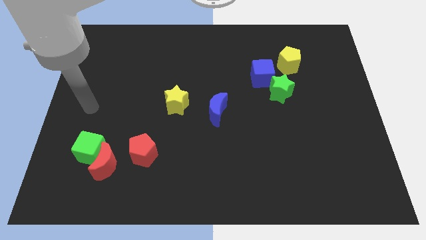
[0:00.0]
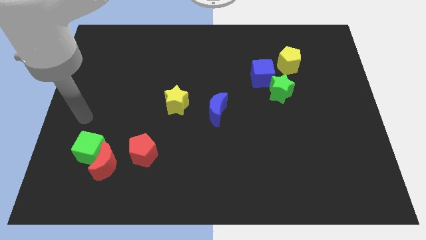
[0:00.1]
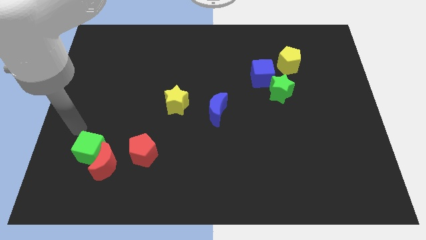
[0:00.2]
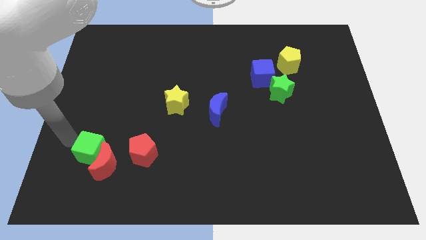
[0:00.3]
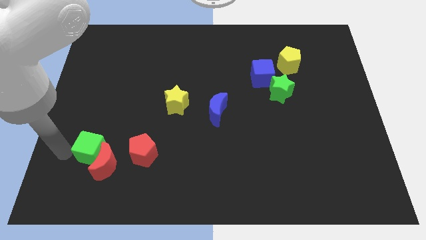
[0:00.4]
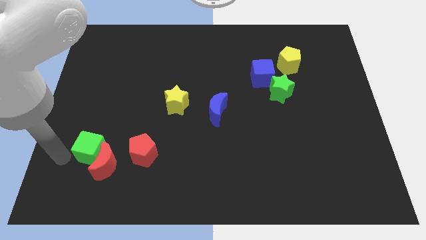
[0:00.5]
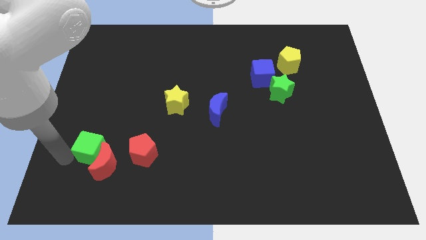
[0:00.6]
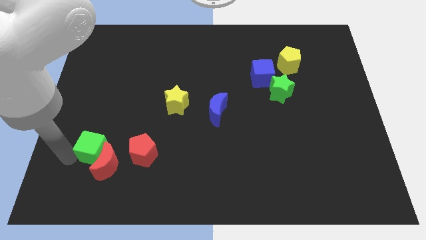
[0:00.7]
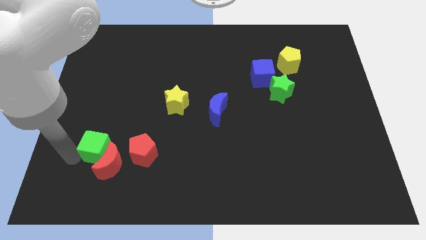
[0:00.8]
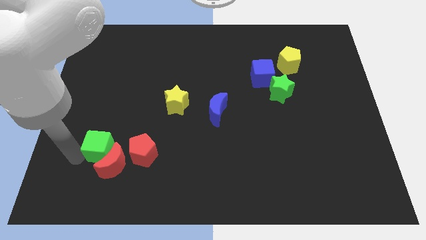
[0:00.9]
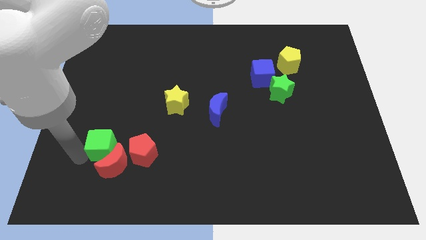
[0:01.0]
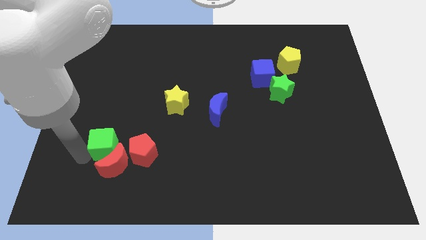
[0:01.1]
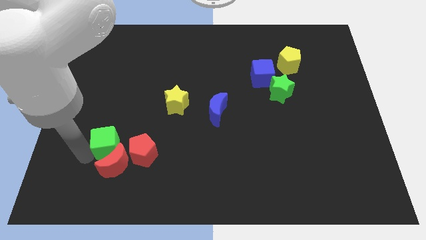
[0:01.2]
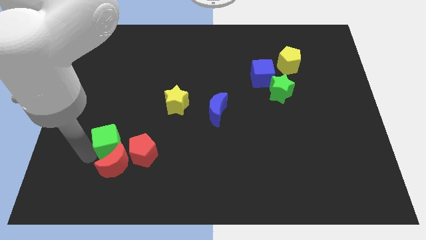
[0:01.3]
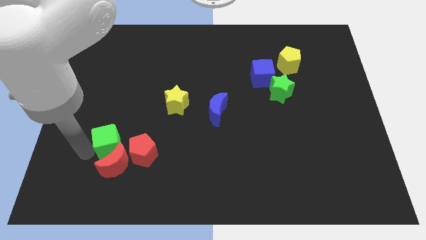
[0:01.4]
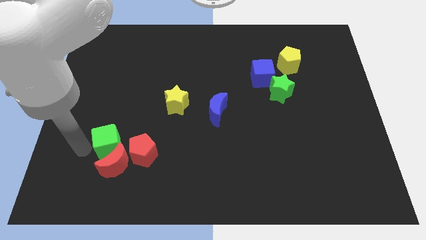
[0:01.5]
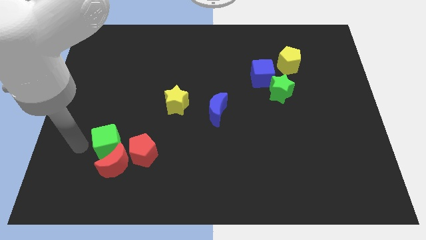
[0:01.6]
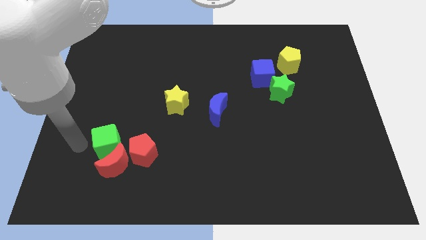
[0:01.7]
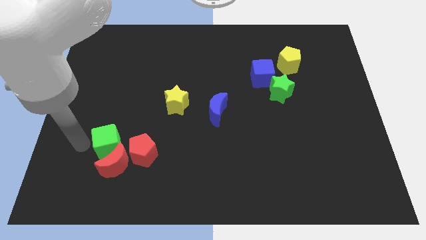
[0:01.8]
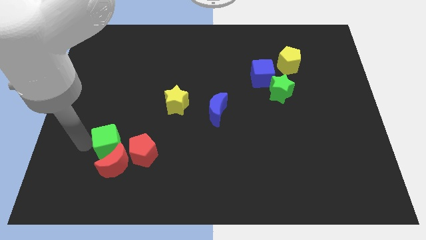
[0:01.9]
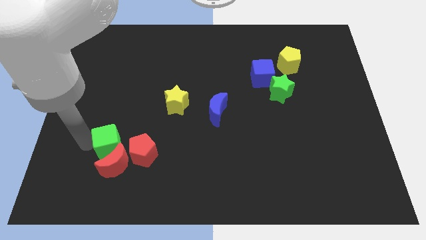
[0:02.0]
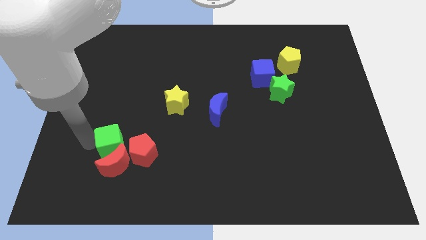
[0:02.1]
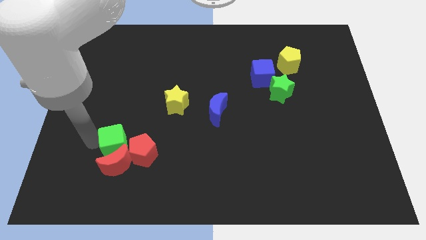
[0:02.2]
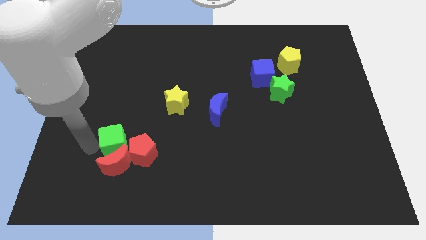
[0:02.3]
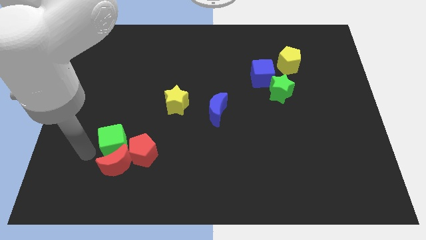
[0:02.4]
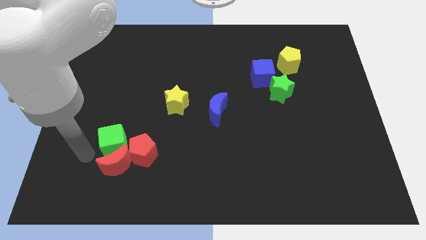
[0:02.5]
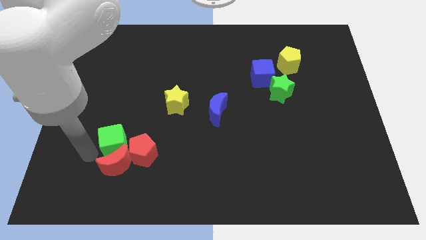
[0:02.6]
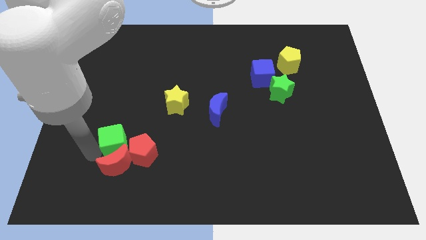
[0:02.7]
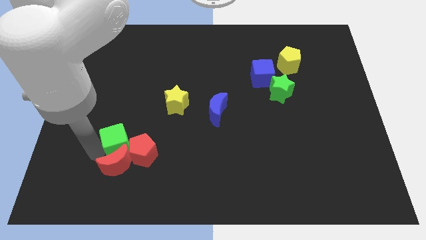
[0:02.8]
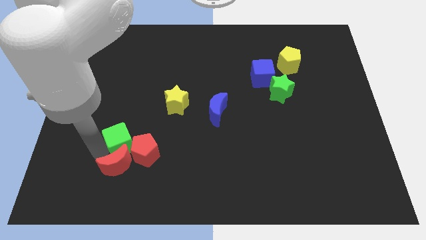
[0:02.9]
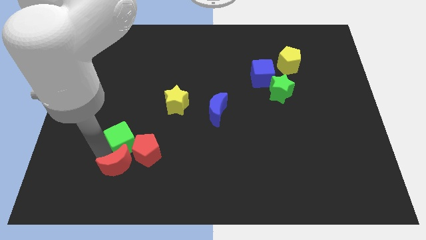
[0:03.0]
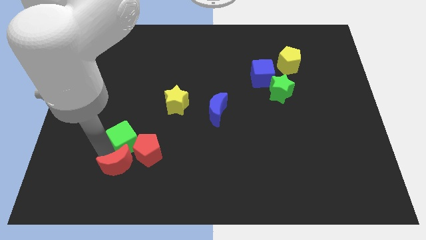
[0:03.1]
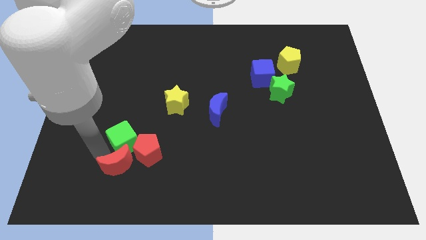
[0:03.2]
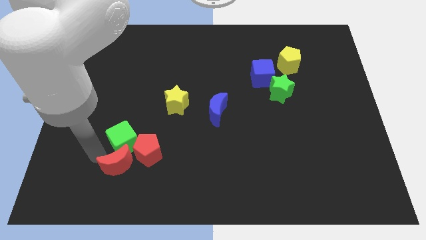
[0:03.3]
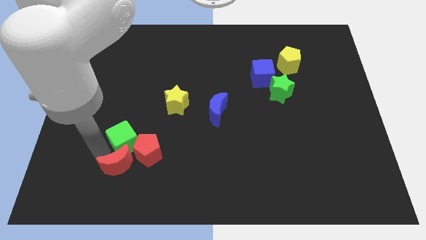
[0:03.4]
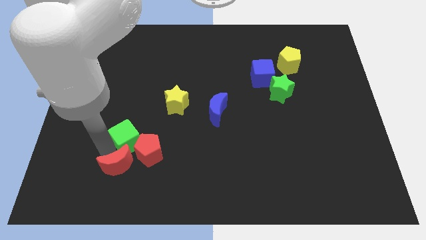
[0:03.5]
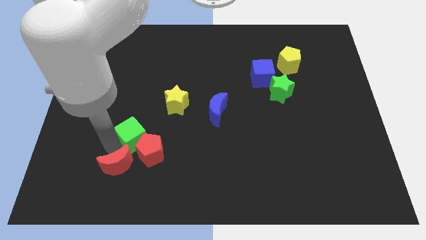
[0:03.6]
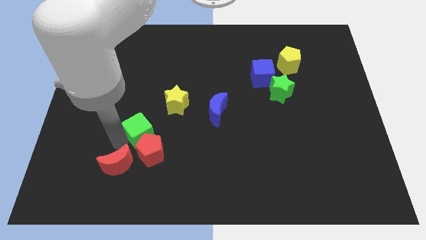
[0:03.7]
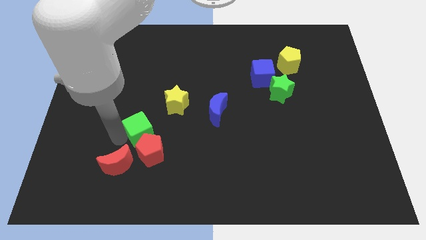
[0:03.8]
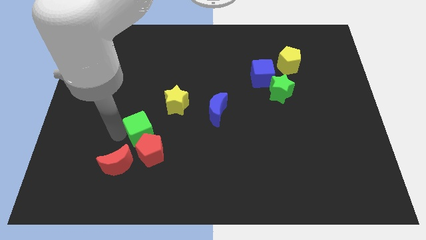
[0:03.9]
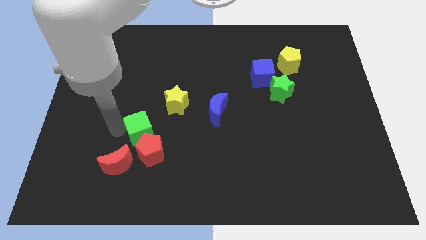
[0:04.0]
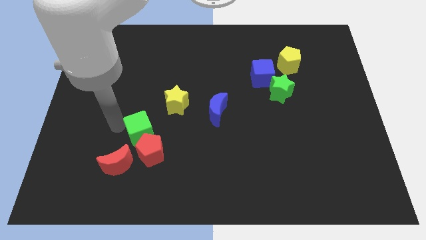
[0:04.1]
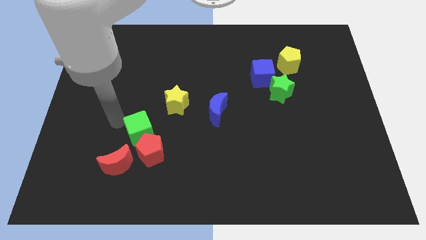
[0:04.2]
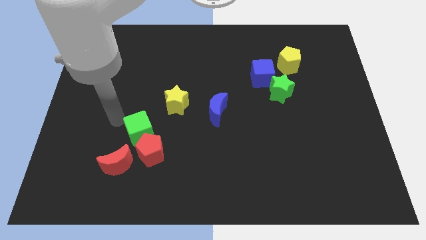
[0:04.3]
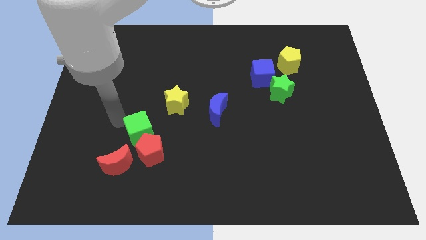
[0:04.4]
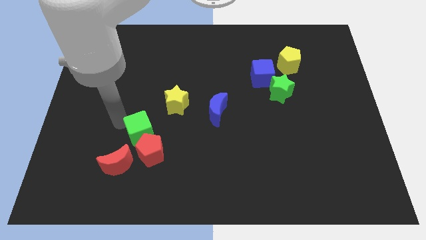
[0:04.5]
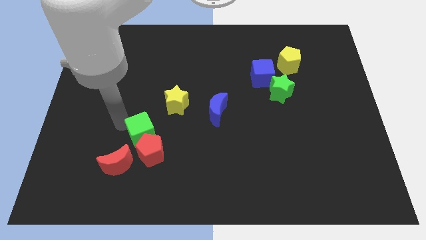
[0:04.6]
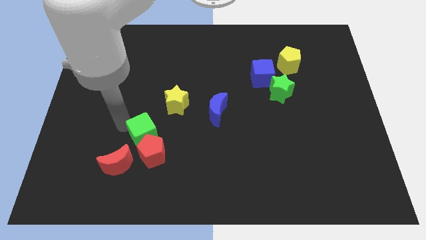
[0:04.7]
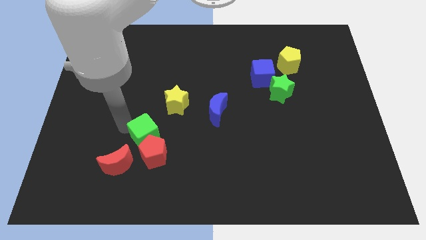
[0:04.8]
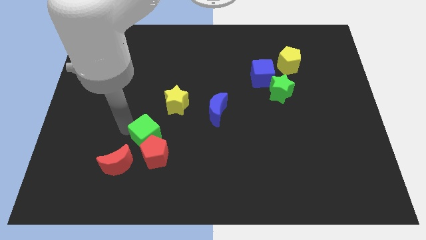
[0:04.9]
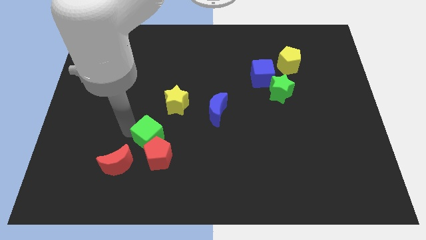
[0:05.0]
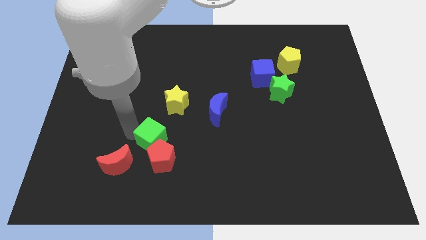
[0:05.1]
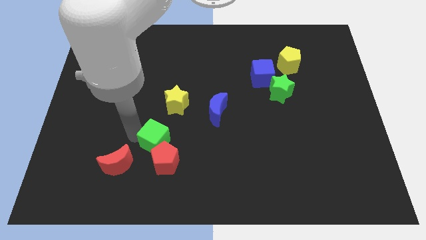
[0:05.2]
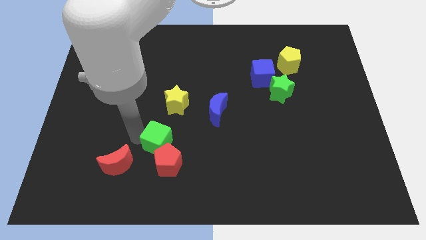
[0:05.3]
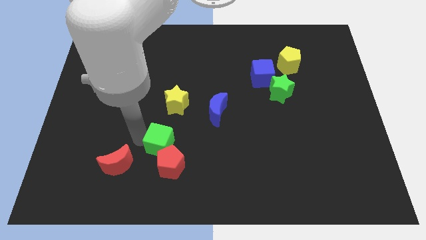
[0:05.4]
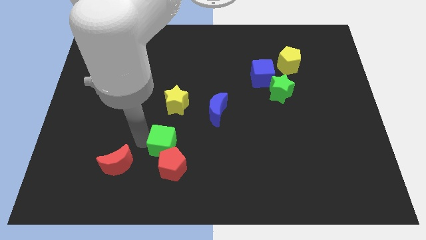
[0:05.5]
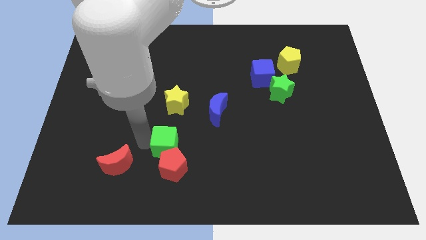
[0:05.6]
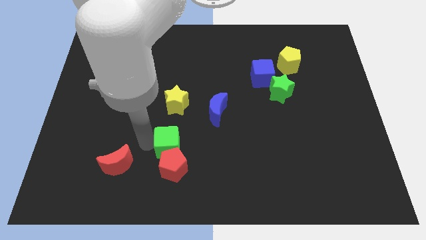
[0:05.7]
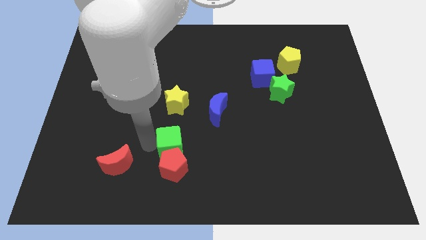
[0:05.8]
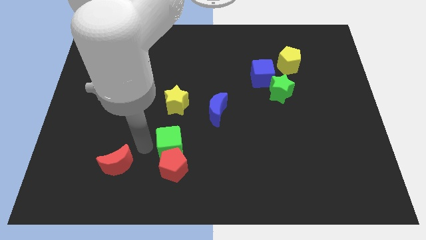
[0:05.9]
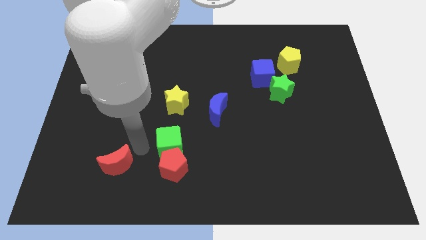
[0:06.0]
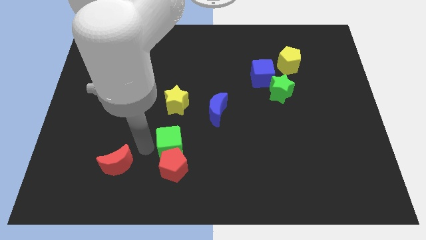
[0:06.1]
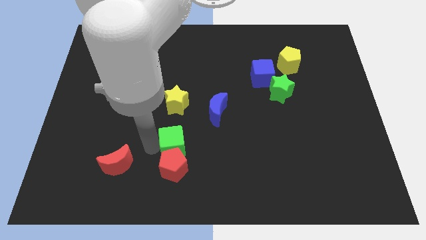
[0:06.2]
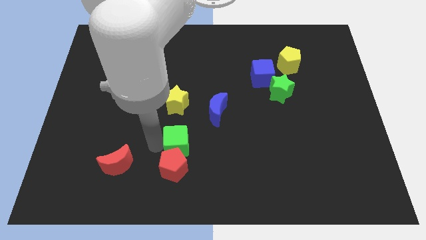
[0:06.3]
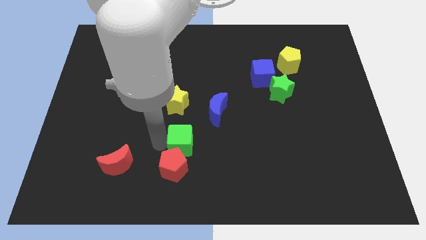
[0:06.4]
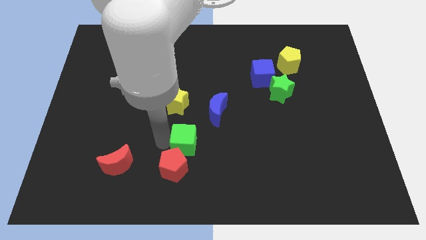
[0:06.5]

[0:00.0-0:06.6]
push the green cube right

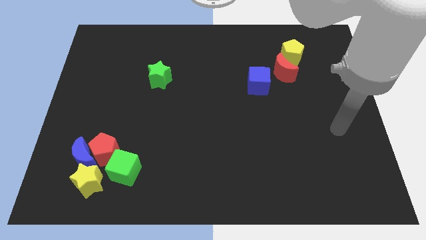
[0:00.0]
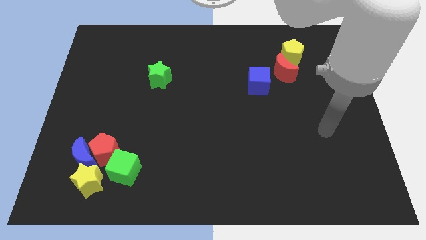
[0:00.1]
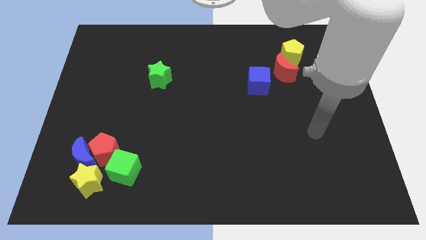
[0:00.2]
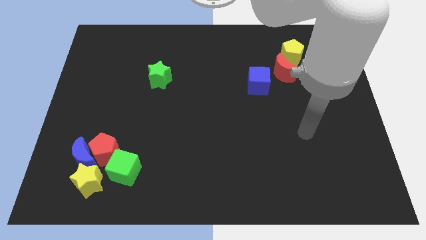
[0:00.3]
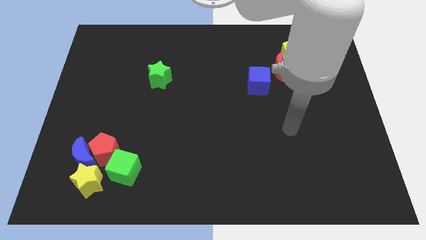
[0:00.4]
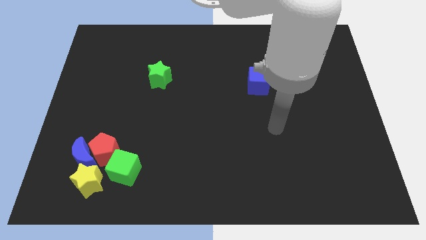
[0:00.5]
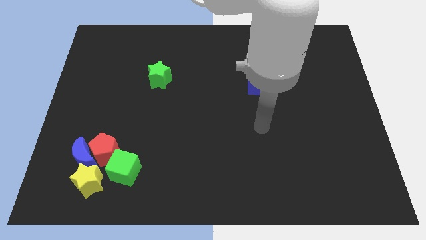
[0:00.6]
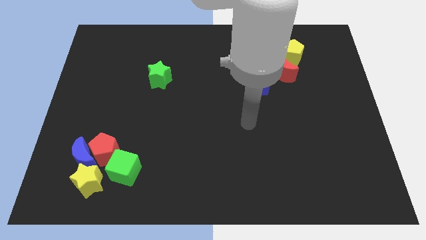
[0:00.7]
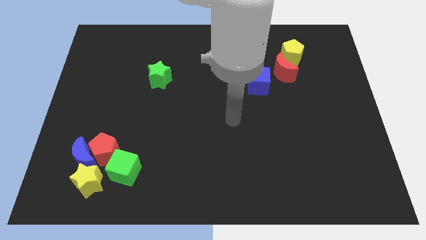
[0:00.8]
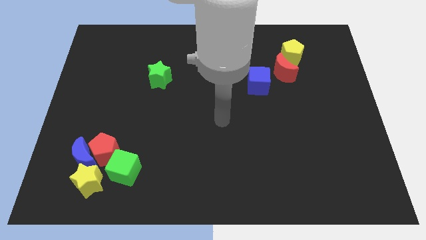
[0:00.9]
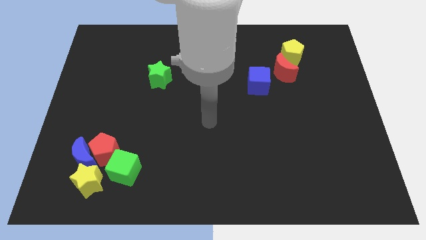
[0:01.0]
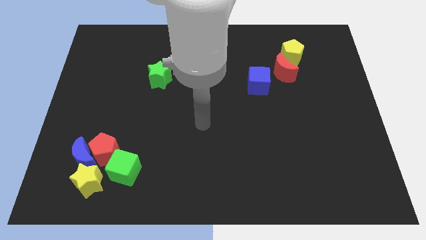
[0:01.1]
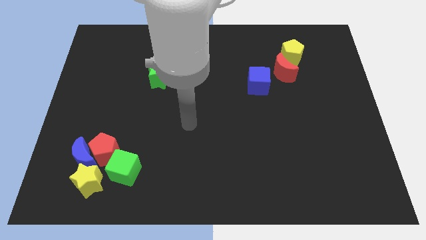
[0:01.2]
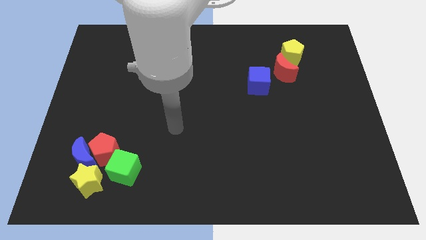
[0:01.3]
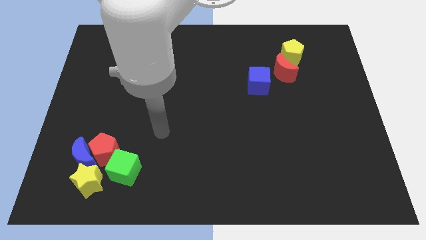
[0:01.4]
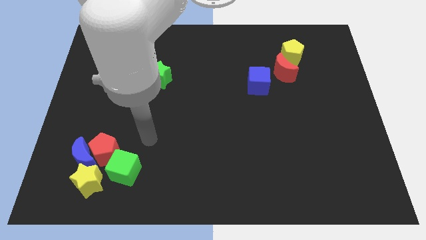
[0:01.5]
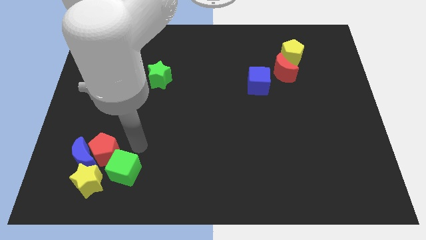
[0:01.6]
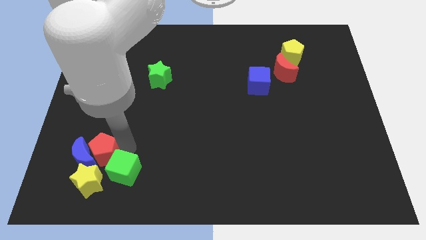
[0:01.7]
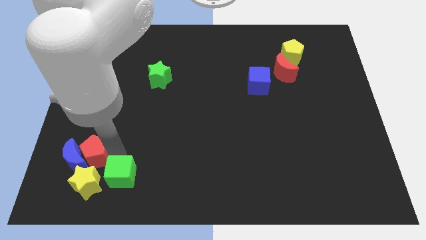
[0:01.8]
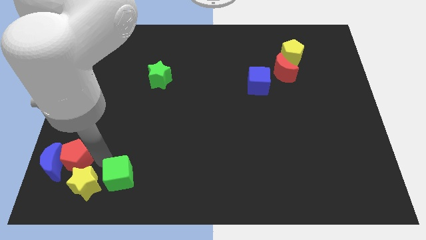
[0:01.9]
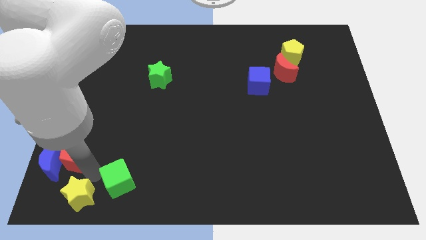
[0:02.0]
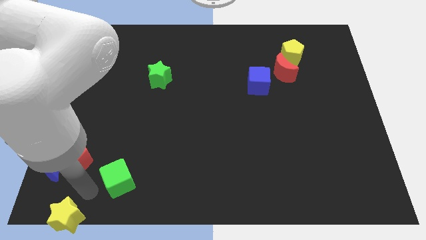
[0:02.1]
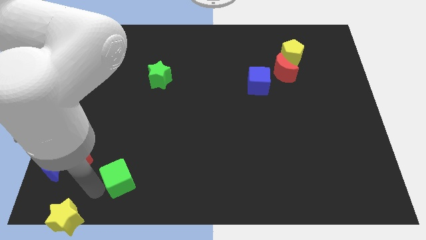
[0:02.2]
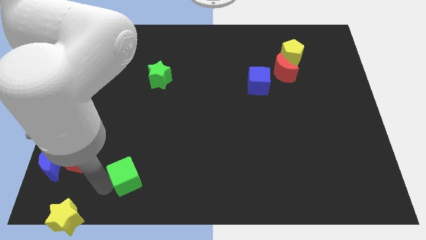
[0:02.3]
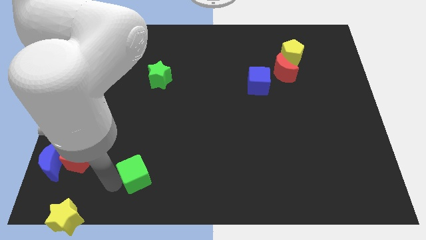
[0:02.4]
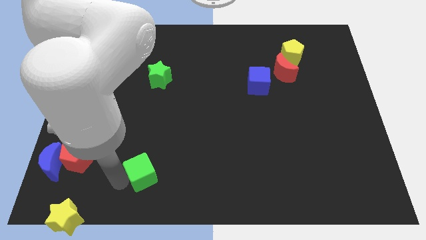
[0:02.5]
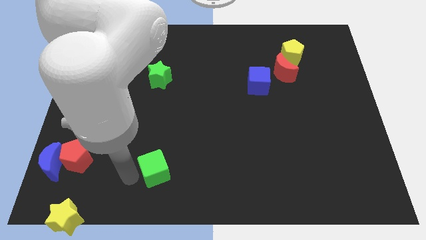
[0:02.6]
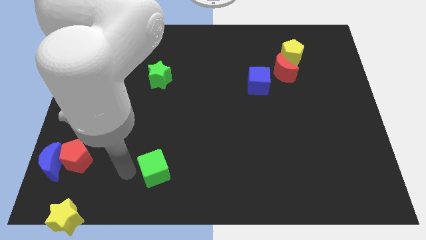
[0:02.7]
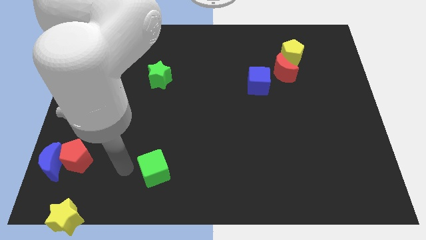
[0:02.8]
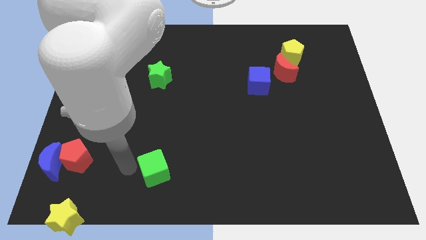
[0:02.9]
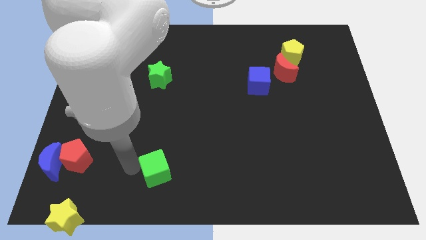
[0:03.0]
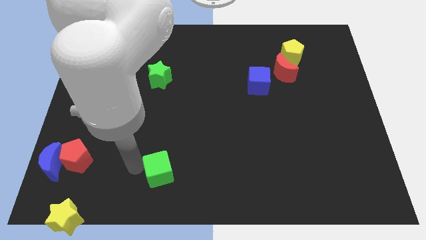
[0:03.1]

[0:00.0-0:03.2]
move the green cube a little right
